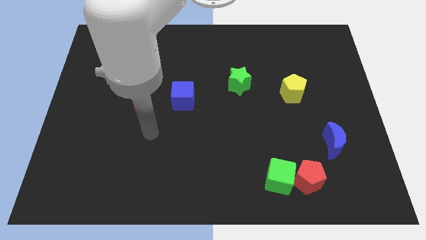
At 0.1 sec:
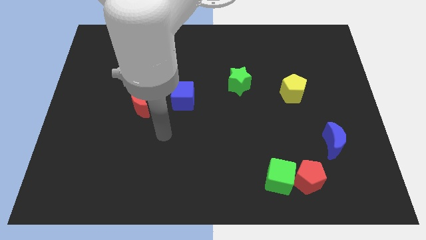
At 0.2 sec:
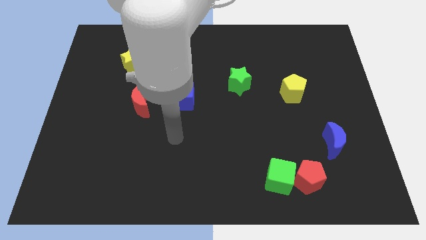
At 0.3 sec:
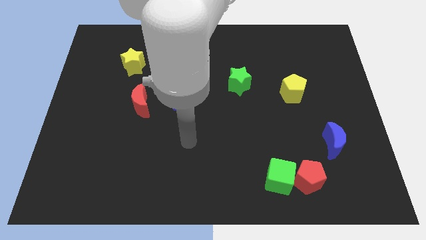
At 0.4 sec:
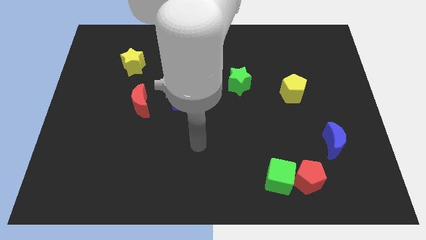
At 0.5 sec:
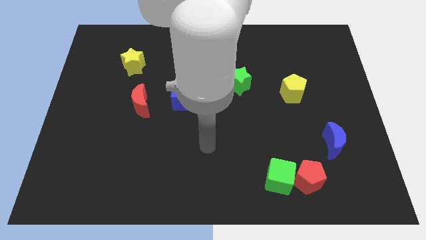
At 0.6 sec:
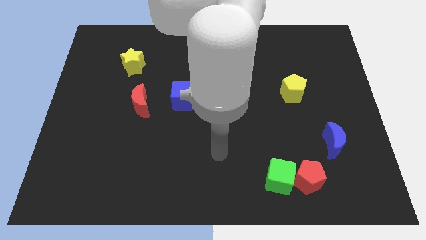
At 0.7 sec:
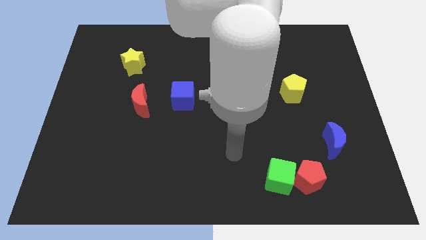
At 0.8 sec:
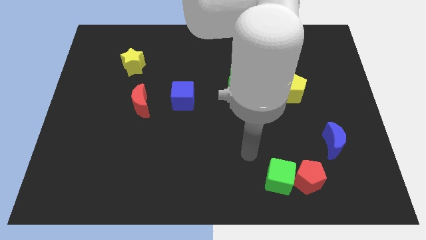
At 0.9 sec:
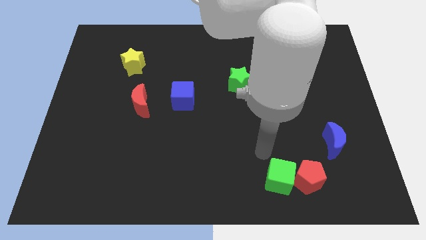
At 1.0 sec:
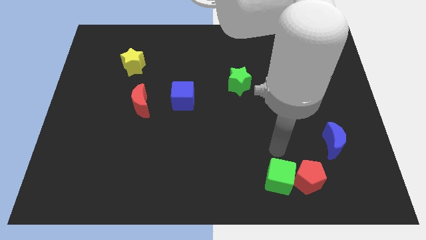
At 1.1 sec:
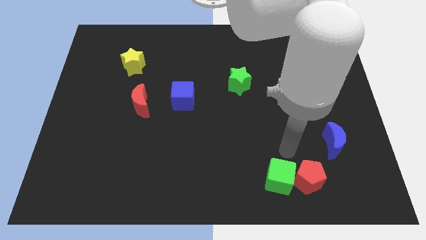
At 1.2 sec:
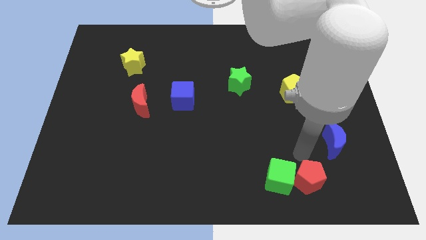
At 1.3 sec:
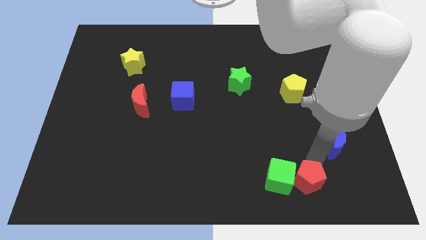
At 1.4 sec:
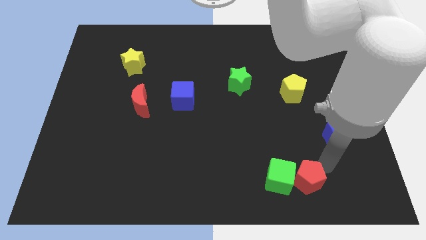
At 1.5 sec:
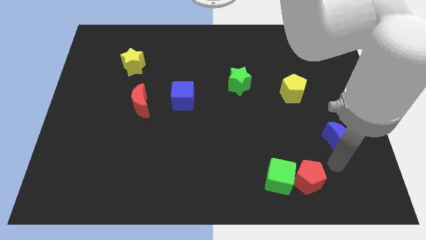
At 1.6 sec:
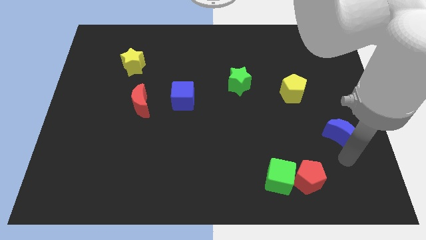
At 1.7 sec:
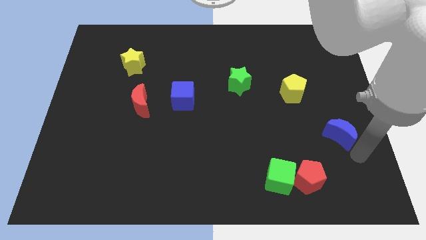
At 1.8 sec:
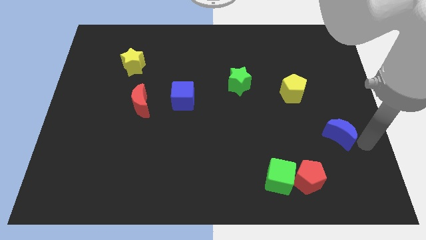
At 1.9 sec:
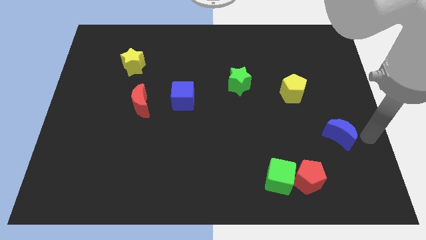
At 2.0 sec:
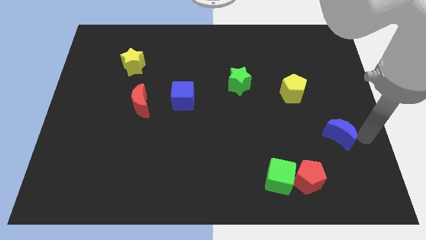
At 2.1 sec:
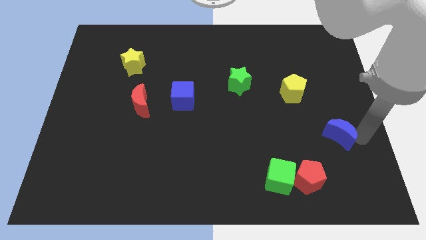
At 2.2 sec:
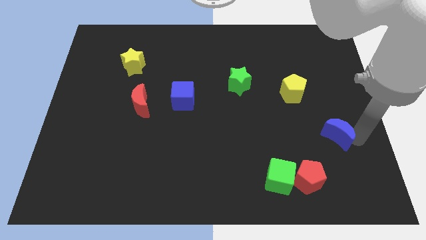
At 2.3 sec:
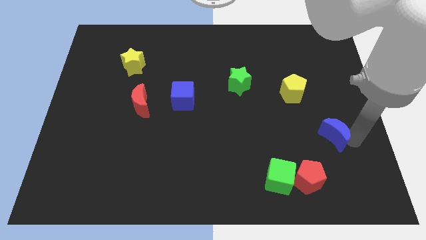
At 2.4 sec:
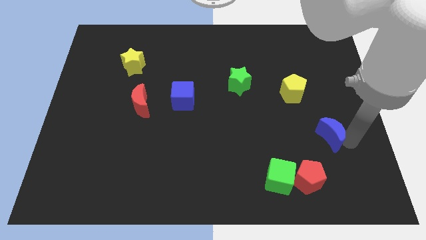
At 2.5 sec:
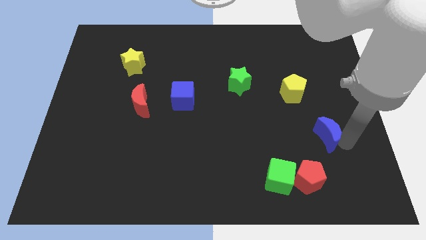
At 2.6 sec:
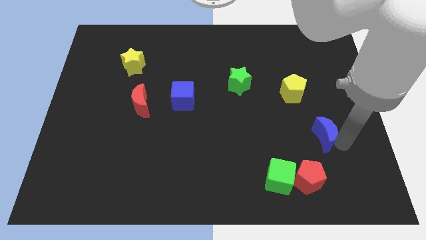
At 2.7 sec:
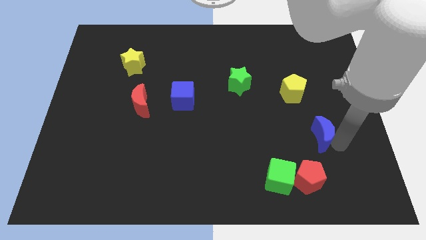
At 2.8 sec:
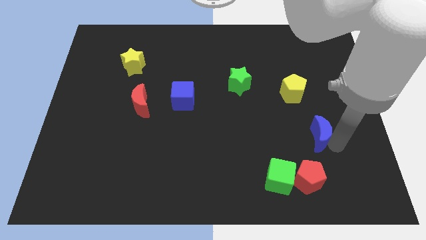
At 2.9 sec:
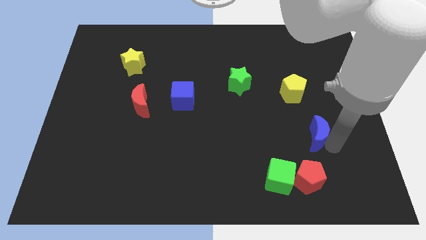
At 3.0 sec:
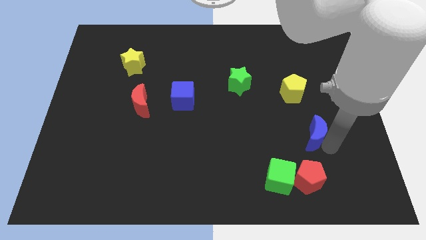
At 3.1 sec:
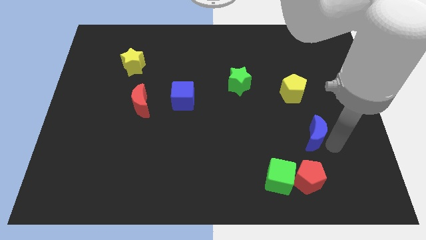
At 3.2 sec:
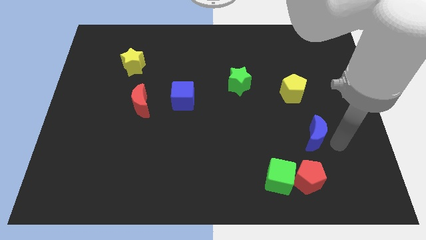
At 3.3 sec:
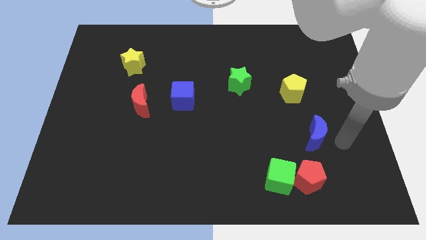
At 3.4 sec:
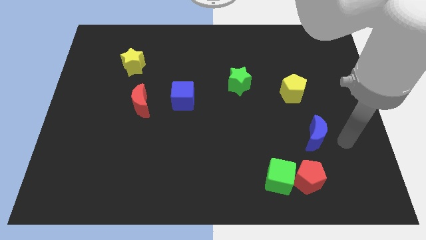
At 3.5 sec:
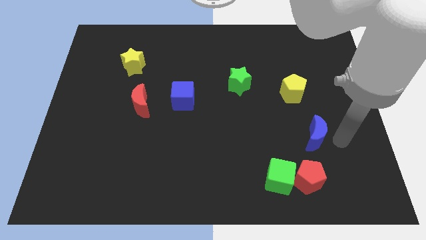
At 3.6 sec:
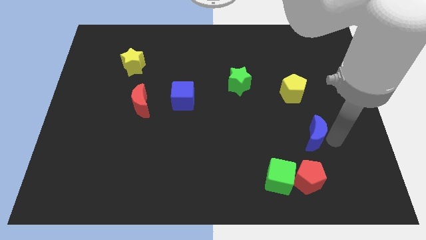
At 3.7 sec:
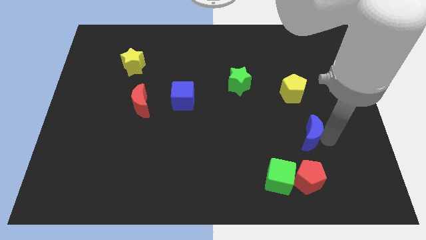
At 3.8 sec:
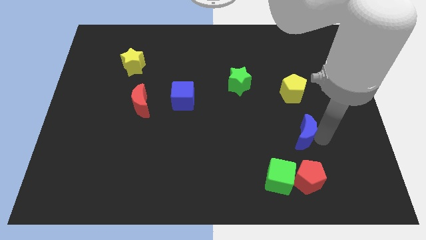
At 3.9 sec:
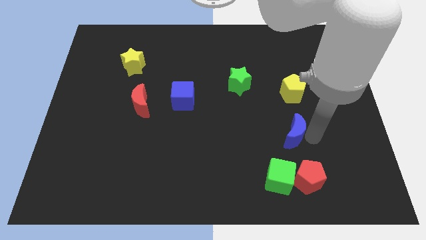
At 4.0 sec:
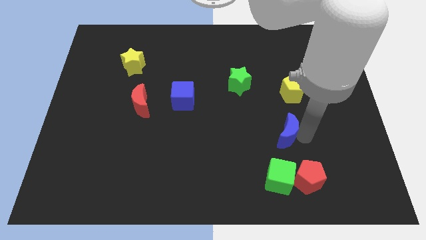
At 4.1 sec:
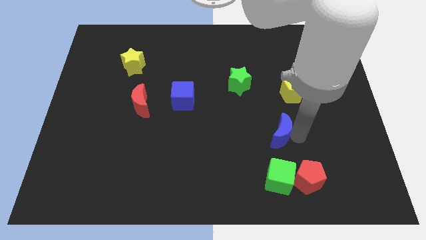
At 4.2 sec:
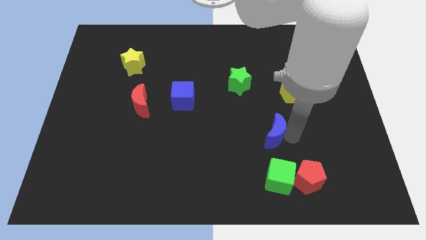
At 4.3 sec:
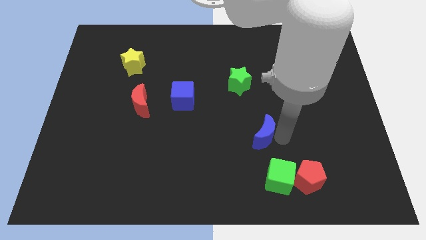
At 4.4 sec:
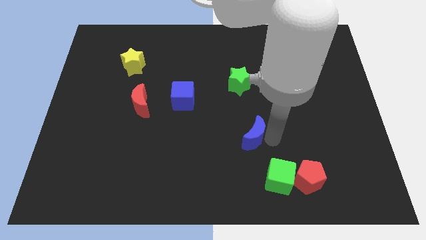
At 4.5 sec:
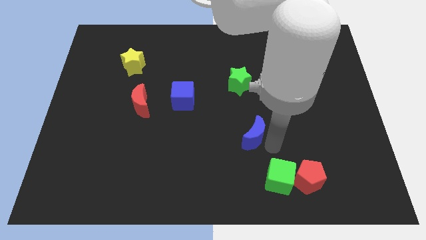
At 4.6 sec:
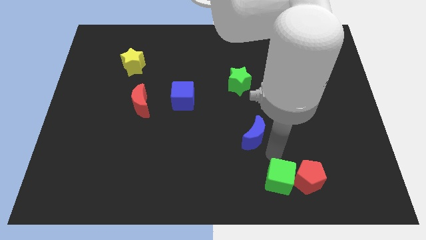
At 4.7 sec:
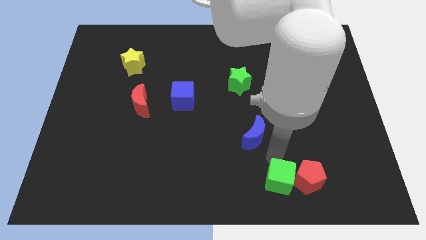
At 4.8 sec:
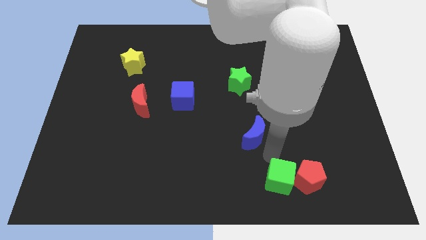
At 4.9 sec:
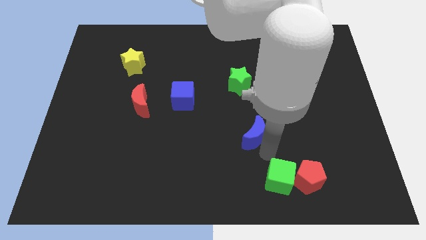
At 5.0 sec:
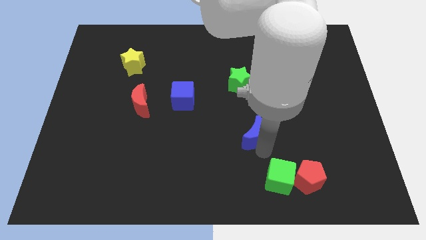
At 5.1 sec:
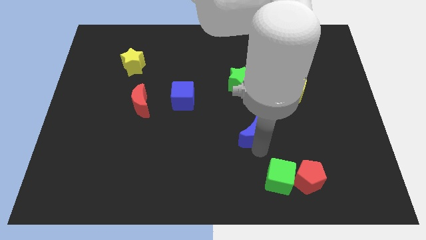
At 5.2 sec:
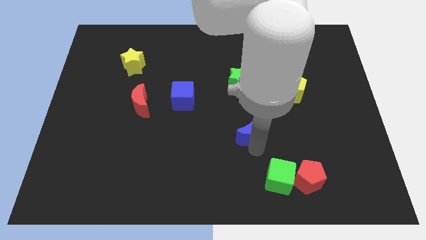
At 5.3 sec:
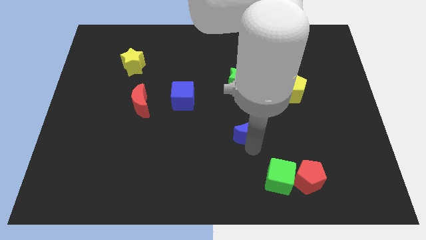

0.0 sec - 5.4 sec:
slide the blue moon to the center of the board
